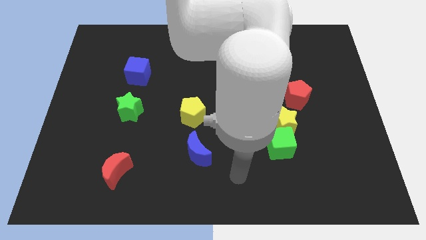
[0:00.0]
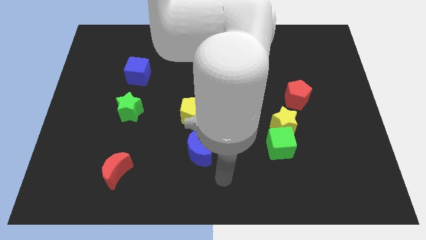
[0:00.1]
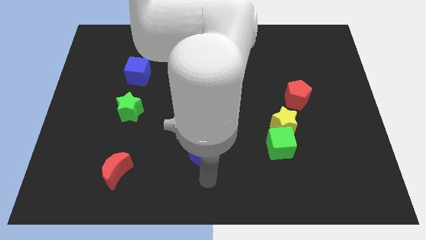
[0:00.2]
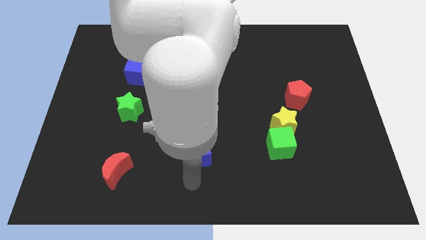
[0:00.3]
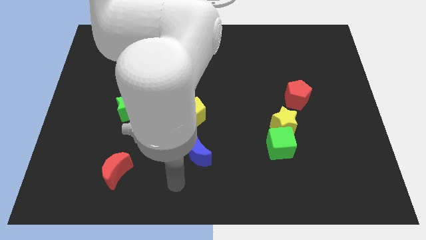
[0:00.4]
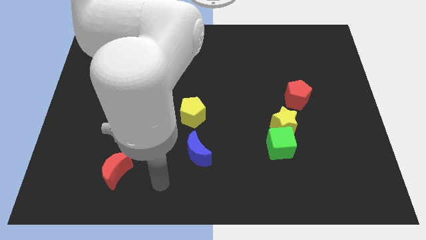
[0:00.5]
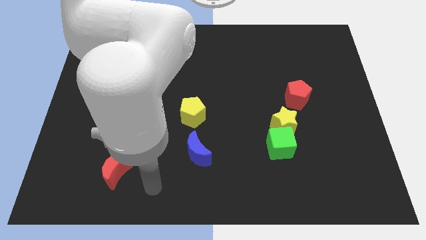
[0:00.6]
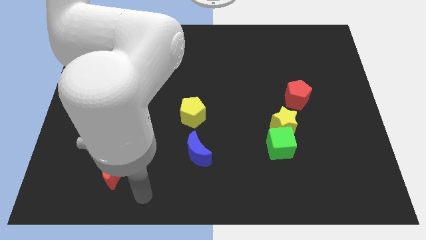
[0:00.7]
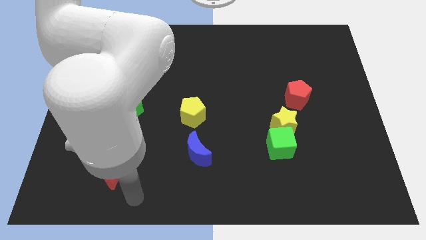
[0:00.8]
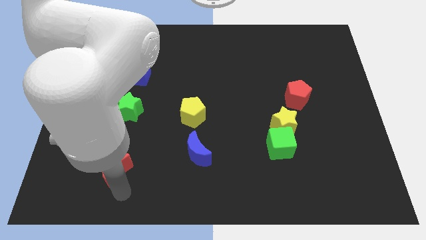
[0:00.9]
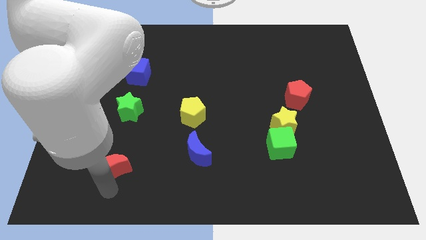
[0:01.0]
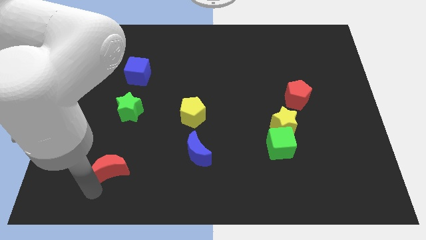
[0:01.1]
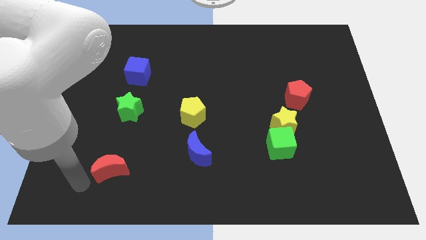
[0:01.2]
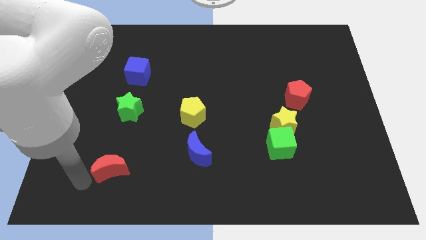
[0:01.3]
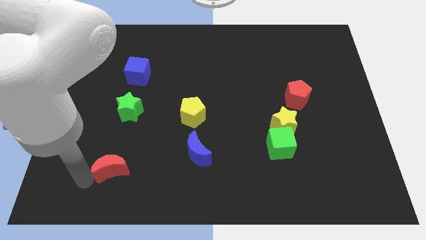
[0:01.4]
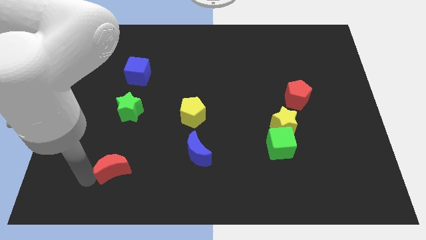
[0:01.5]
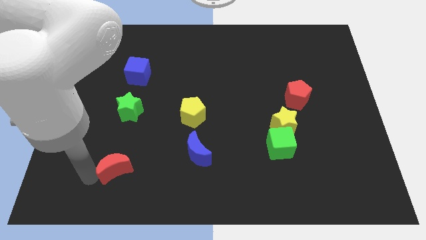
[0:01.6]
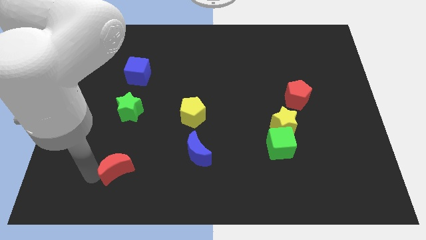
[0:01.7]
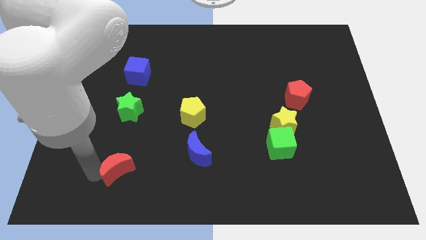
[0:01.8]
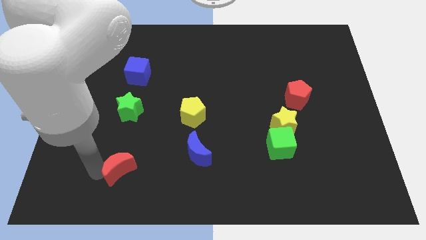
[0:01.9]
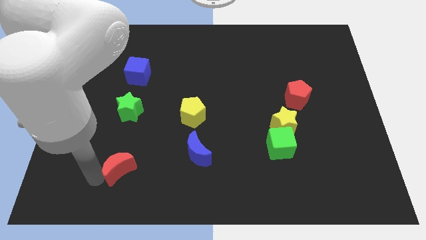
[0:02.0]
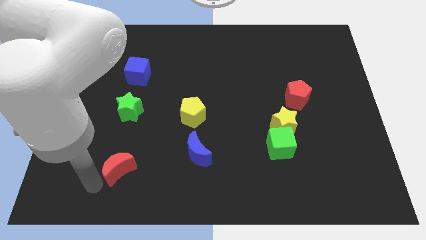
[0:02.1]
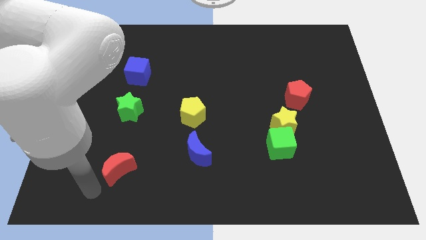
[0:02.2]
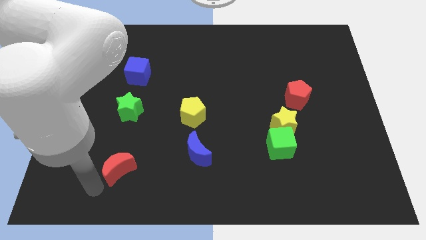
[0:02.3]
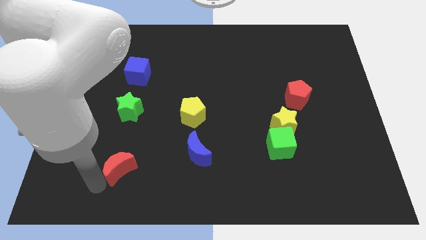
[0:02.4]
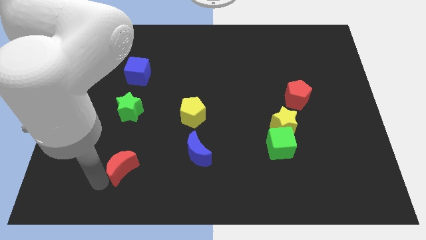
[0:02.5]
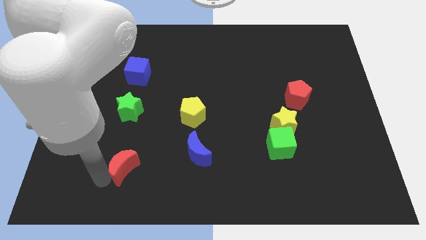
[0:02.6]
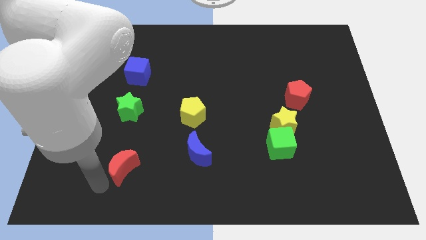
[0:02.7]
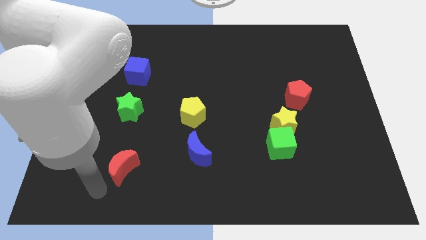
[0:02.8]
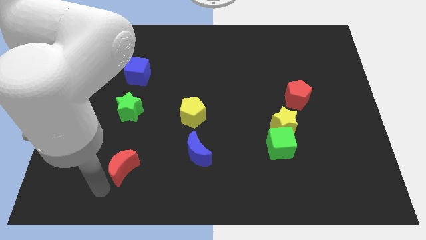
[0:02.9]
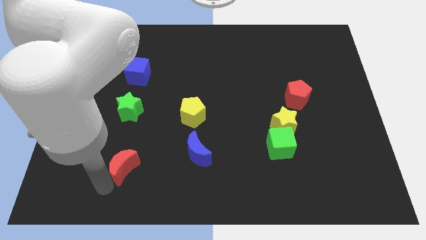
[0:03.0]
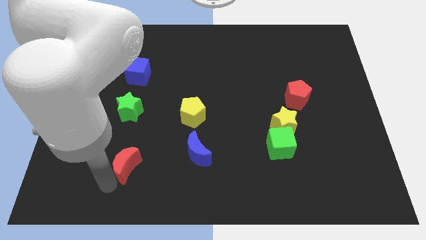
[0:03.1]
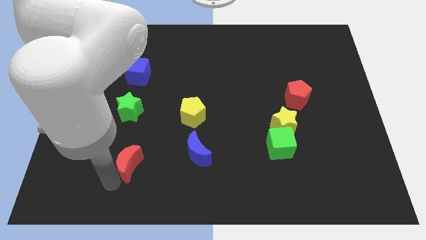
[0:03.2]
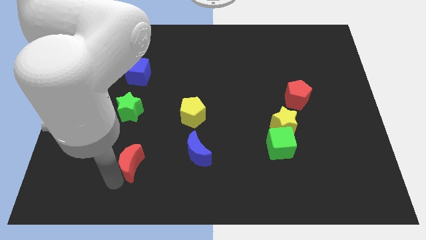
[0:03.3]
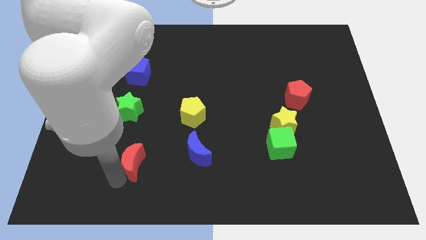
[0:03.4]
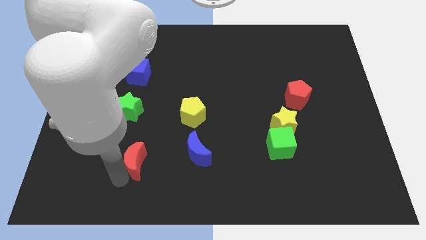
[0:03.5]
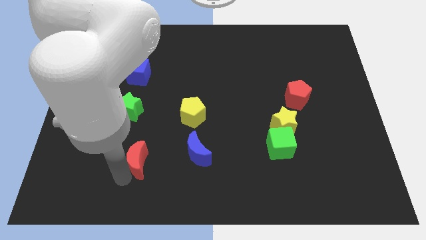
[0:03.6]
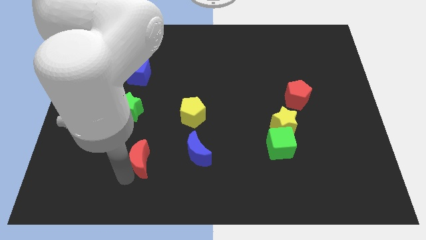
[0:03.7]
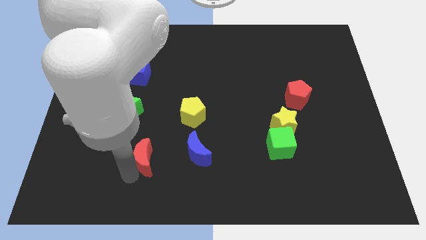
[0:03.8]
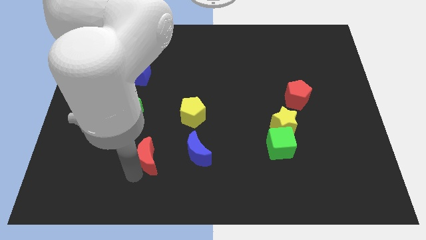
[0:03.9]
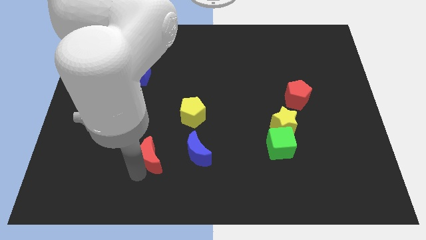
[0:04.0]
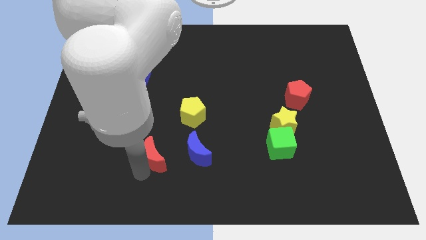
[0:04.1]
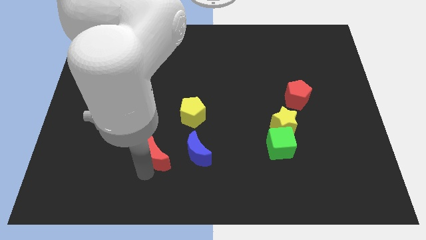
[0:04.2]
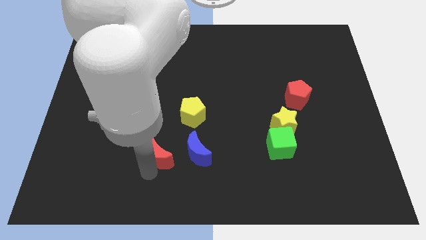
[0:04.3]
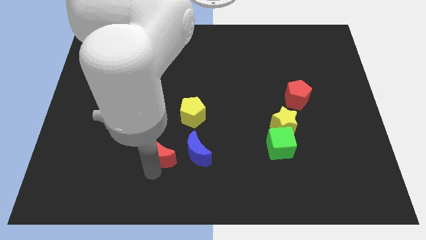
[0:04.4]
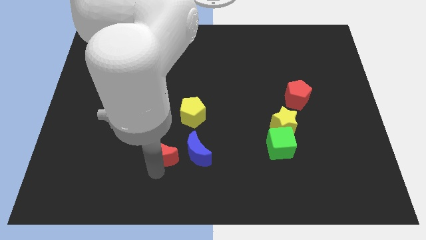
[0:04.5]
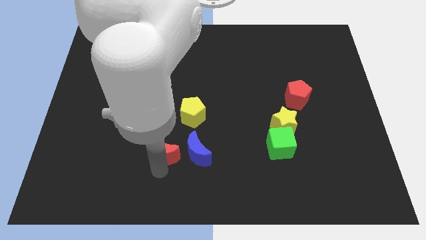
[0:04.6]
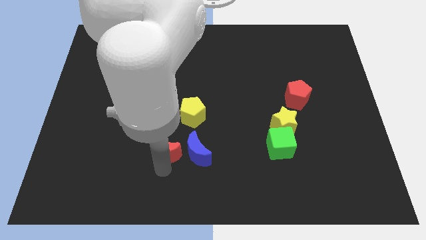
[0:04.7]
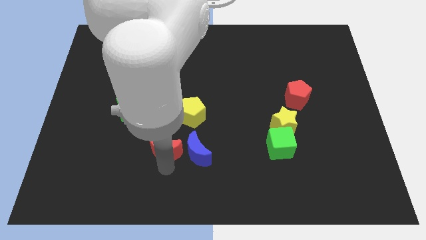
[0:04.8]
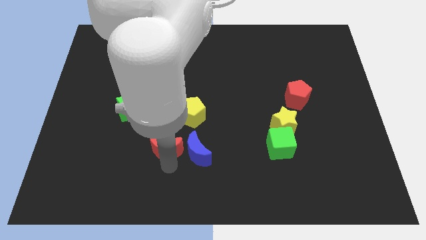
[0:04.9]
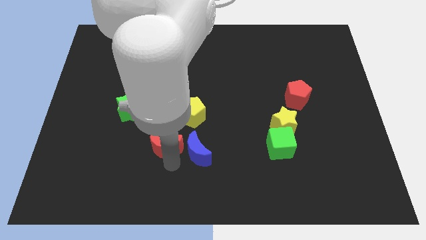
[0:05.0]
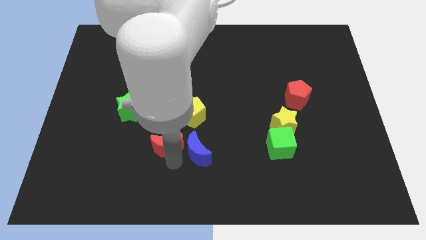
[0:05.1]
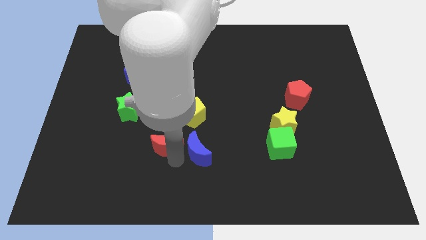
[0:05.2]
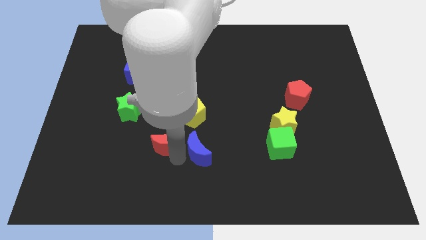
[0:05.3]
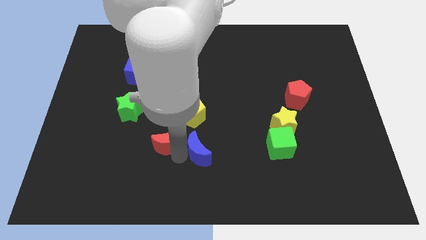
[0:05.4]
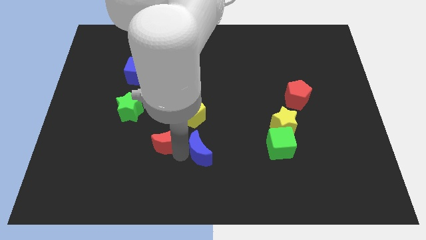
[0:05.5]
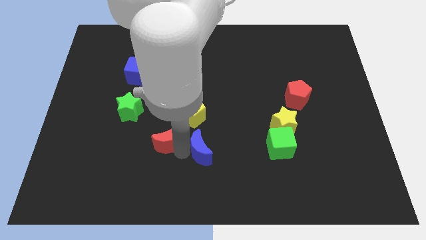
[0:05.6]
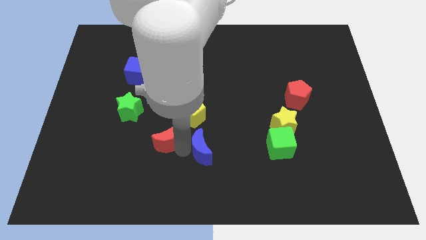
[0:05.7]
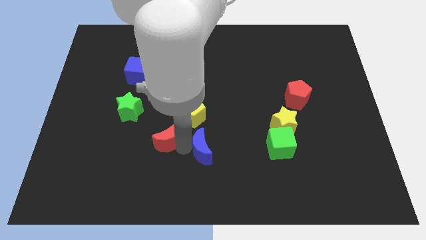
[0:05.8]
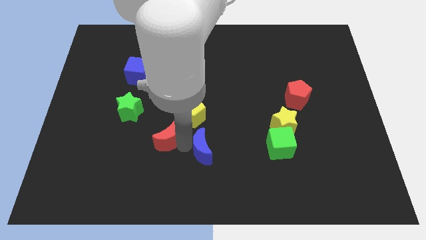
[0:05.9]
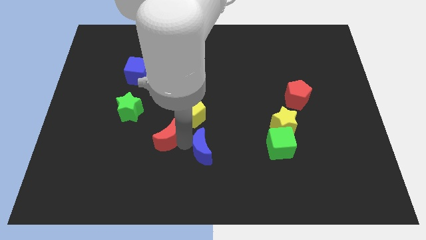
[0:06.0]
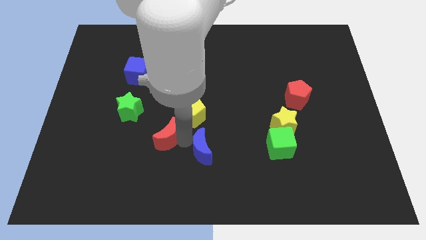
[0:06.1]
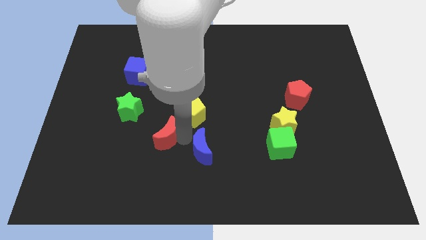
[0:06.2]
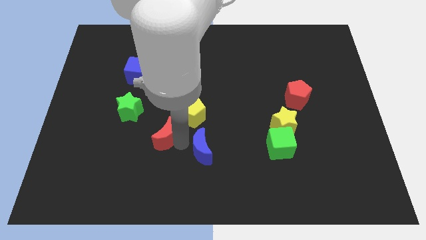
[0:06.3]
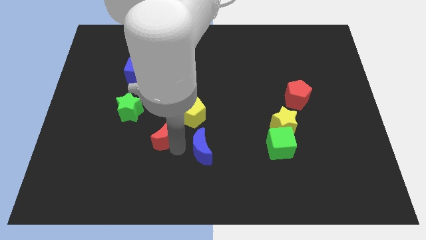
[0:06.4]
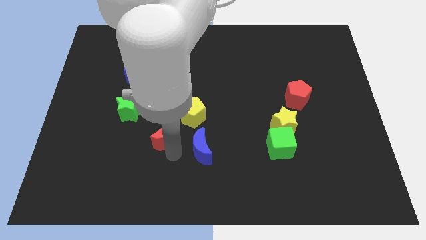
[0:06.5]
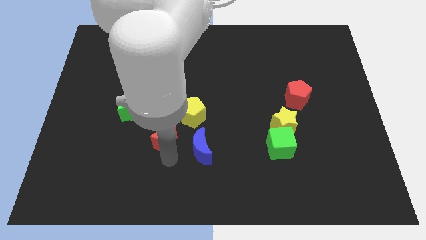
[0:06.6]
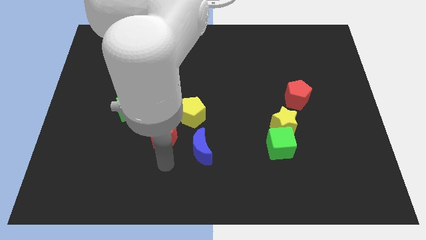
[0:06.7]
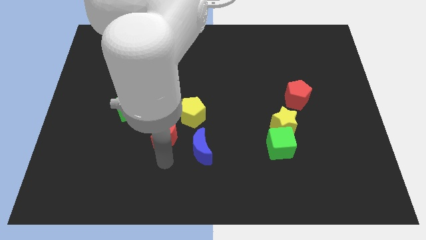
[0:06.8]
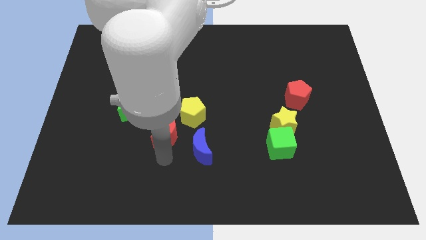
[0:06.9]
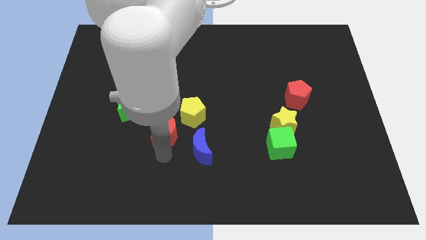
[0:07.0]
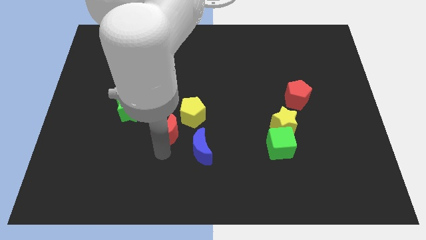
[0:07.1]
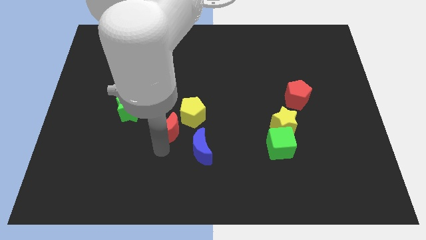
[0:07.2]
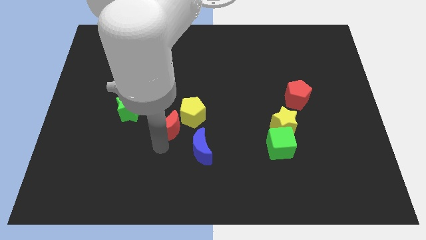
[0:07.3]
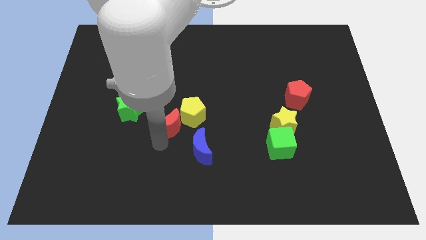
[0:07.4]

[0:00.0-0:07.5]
push the red moon to the middle of the board
